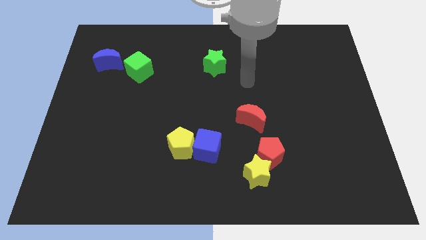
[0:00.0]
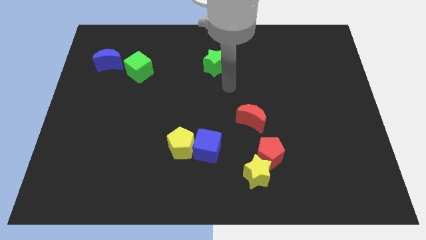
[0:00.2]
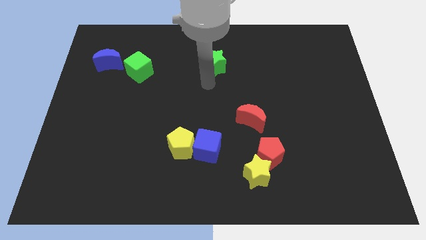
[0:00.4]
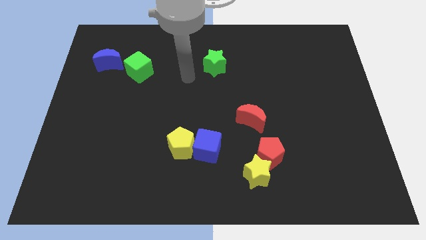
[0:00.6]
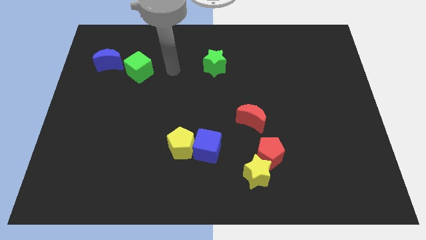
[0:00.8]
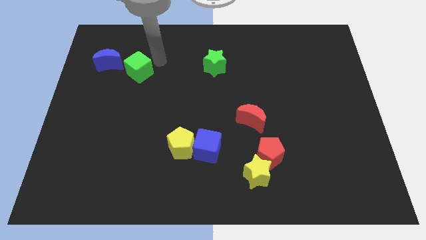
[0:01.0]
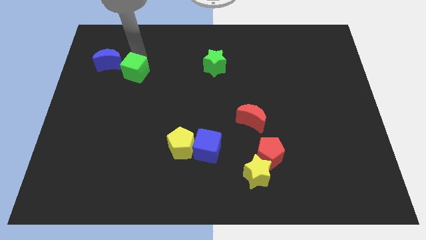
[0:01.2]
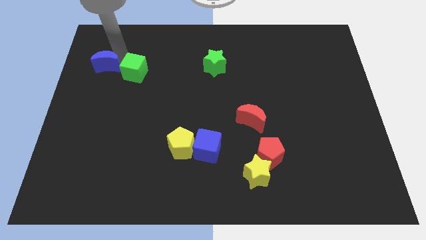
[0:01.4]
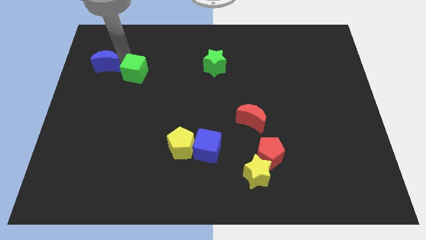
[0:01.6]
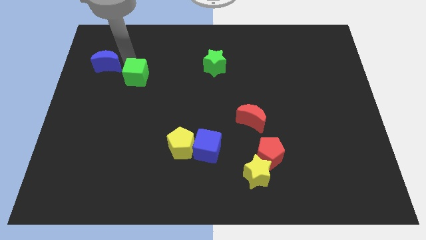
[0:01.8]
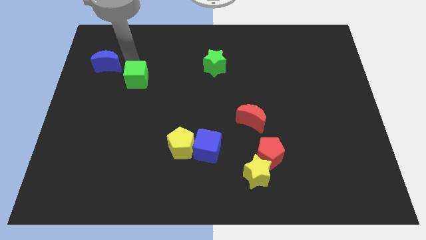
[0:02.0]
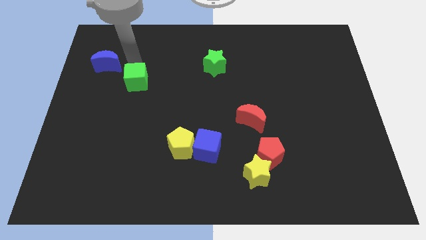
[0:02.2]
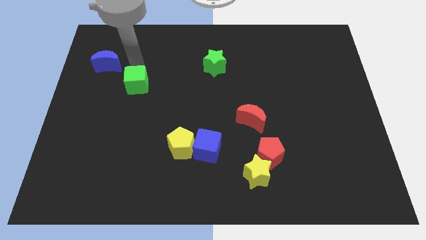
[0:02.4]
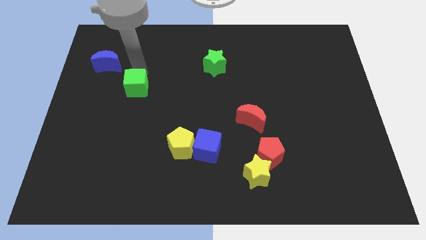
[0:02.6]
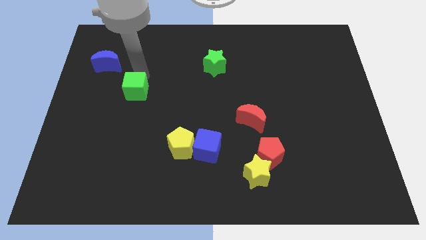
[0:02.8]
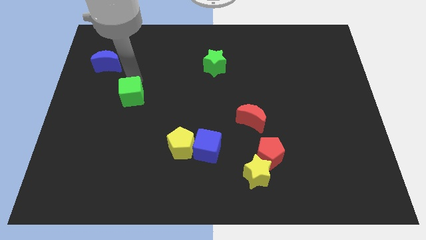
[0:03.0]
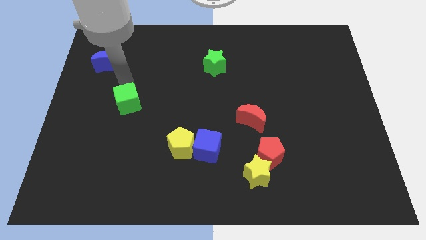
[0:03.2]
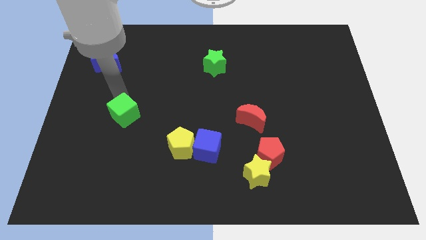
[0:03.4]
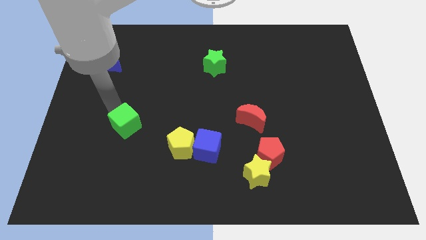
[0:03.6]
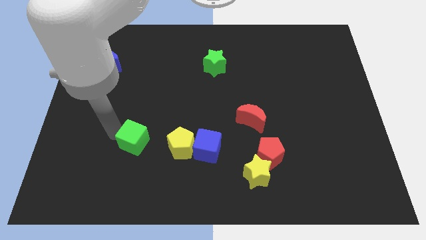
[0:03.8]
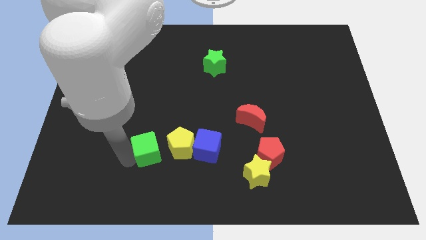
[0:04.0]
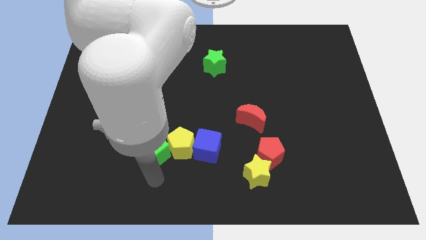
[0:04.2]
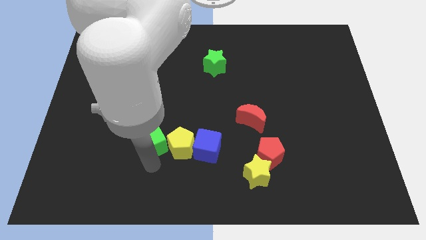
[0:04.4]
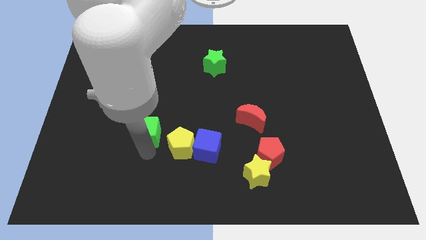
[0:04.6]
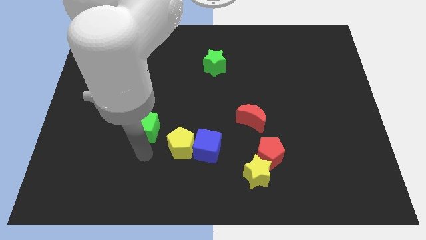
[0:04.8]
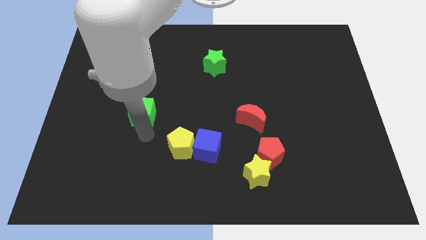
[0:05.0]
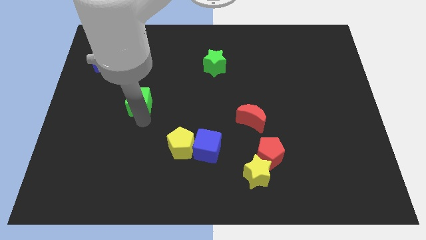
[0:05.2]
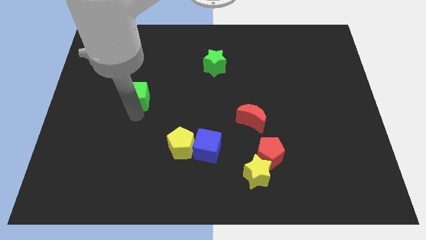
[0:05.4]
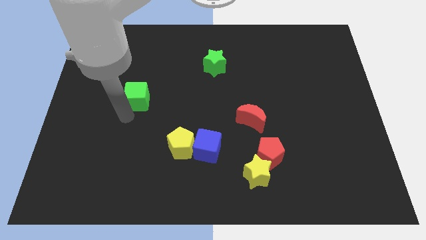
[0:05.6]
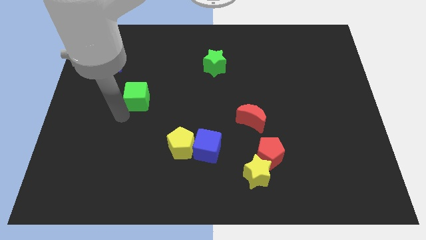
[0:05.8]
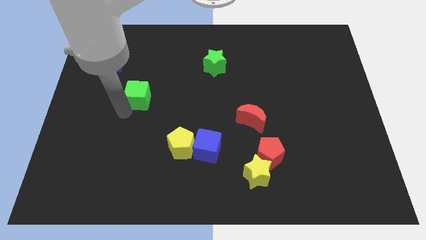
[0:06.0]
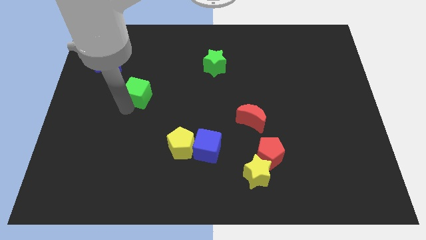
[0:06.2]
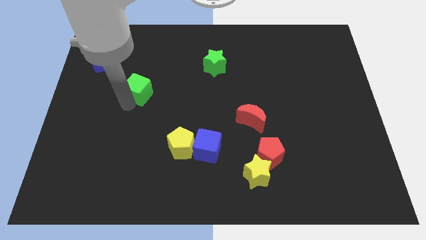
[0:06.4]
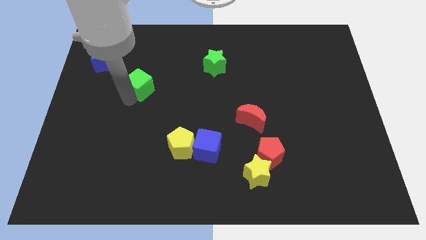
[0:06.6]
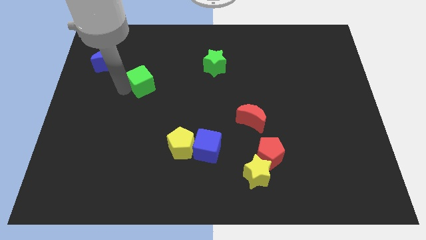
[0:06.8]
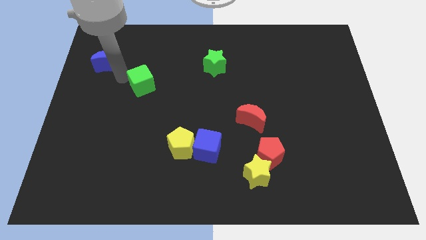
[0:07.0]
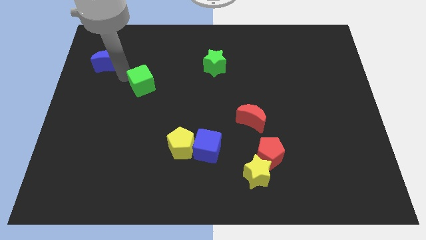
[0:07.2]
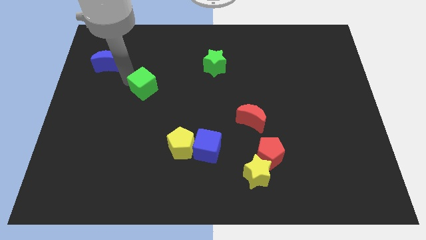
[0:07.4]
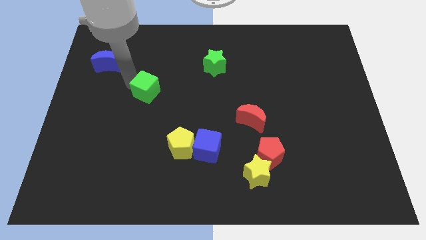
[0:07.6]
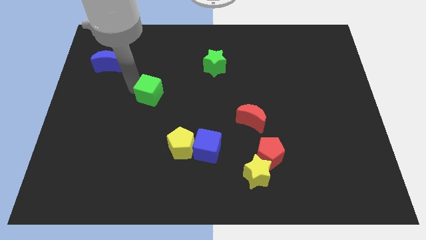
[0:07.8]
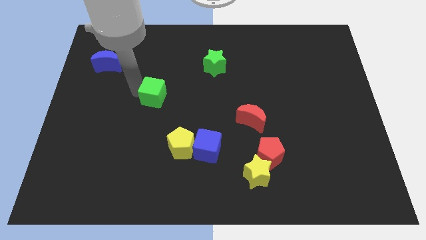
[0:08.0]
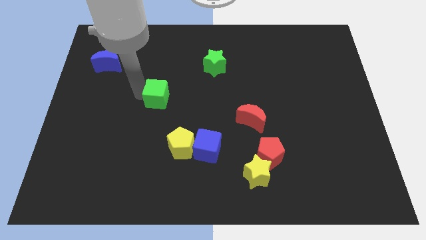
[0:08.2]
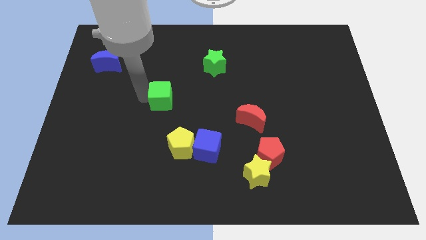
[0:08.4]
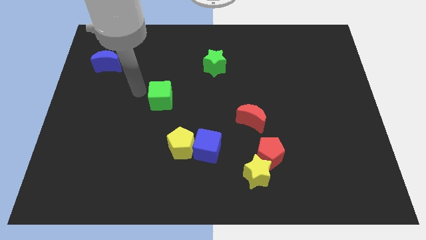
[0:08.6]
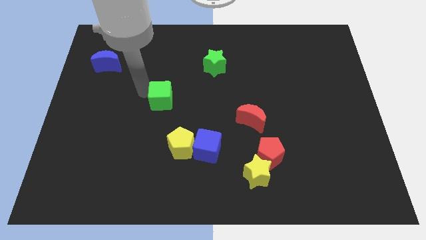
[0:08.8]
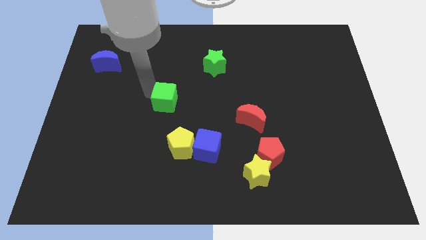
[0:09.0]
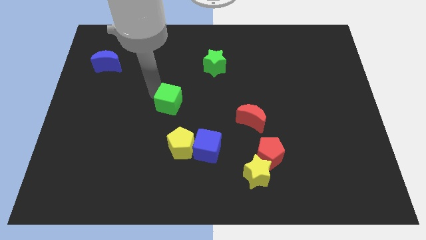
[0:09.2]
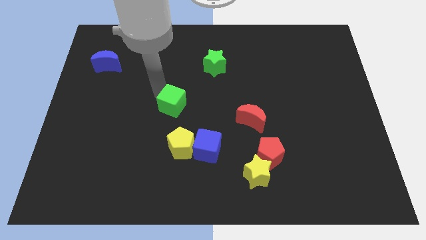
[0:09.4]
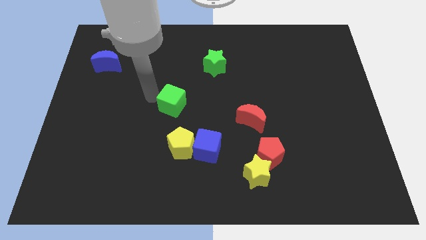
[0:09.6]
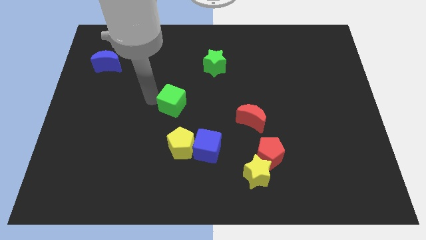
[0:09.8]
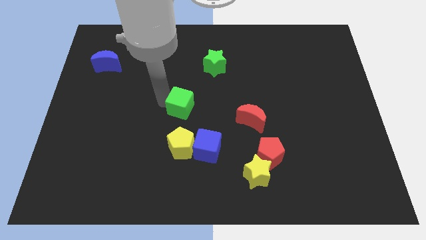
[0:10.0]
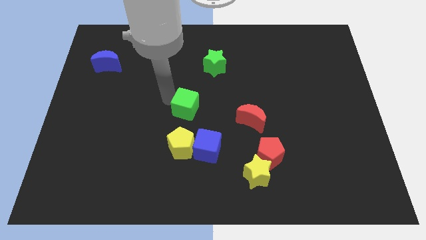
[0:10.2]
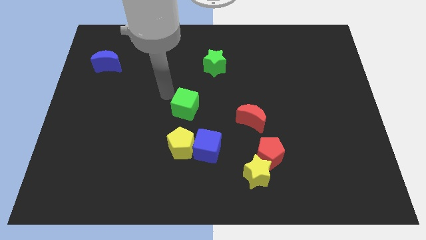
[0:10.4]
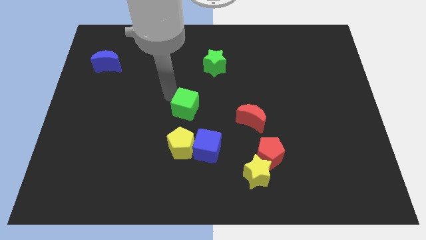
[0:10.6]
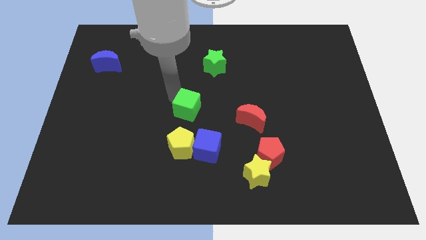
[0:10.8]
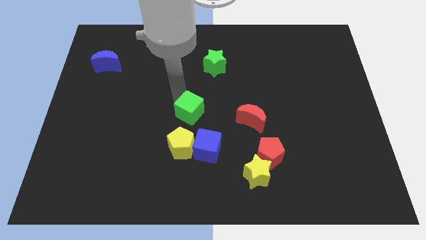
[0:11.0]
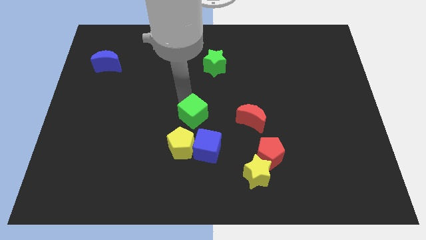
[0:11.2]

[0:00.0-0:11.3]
push the green cube to the top right side of the yellow pentagon

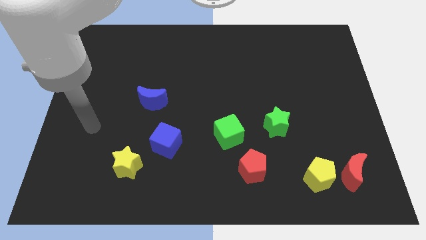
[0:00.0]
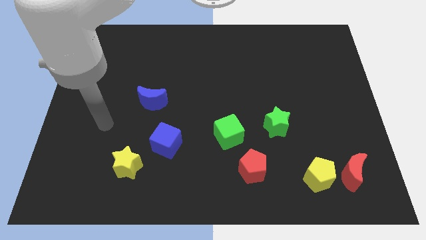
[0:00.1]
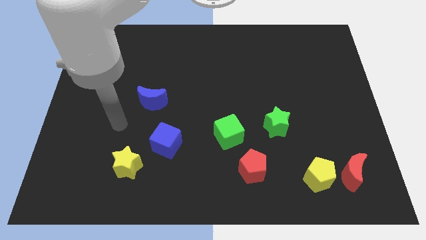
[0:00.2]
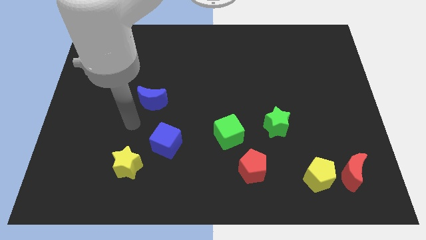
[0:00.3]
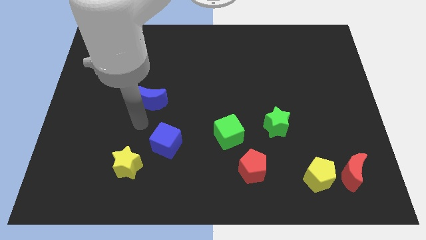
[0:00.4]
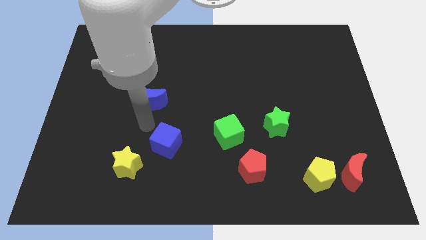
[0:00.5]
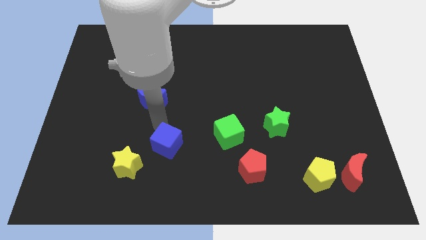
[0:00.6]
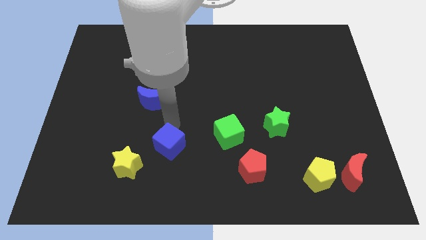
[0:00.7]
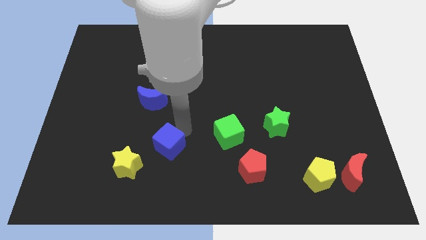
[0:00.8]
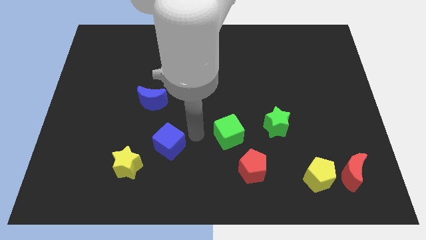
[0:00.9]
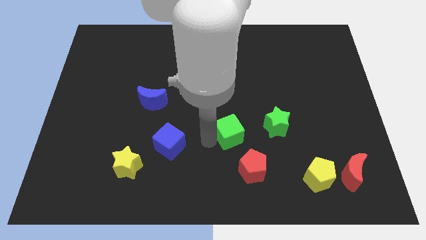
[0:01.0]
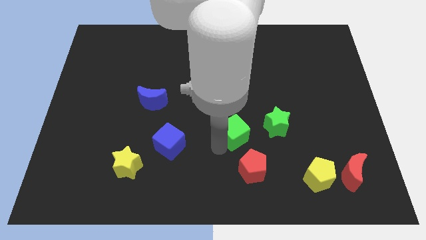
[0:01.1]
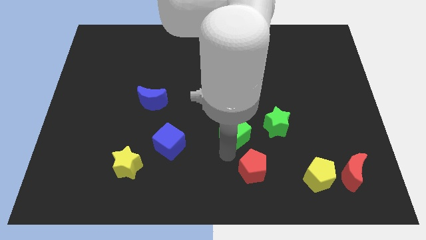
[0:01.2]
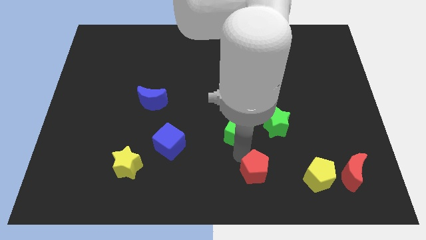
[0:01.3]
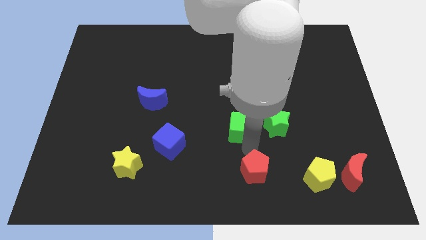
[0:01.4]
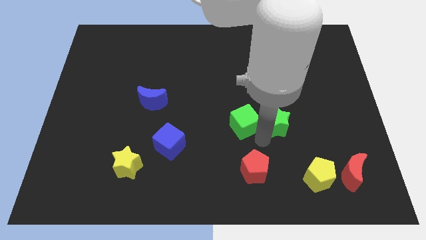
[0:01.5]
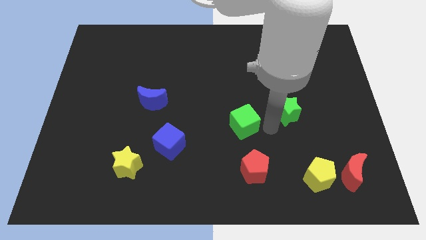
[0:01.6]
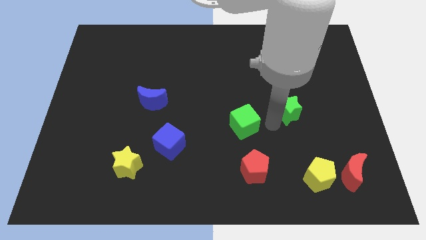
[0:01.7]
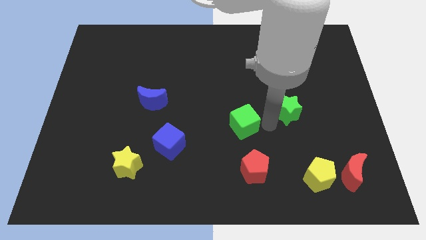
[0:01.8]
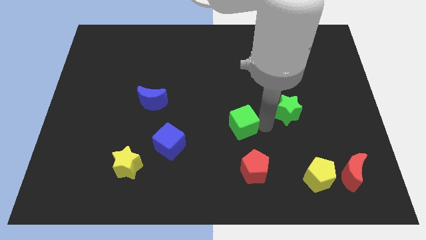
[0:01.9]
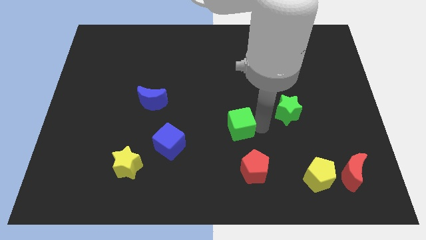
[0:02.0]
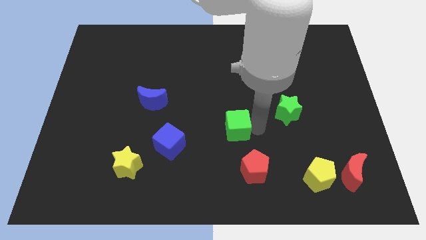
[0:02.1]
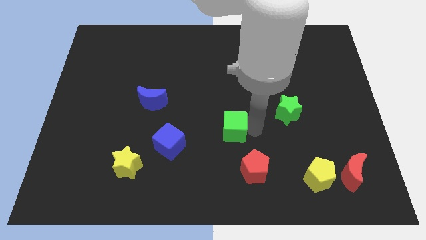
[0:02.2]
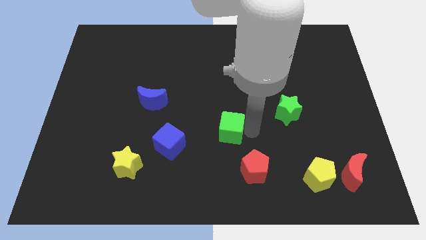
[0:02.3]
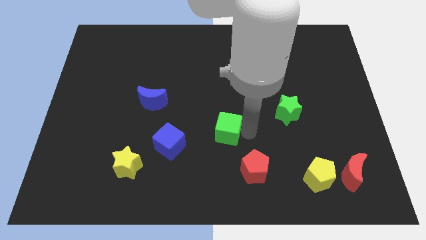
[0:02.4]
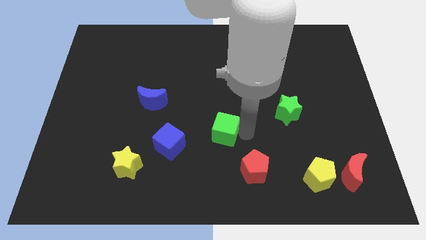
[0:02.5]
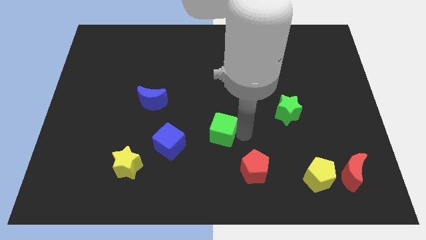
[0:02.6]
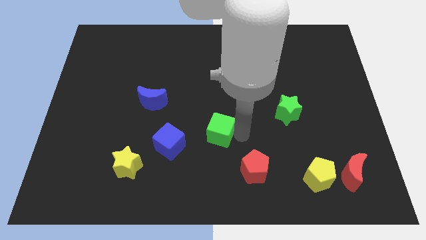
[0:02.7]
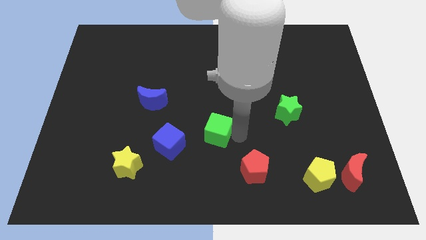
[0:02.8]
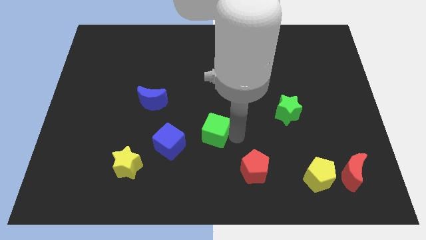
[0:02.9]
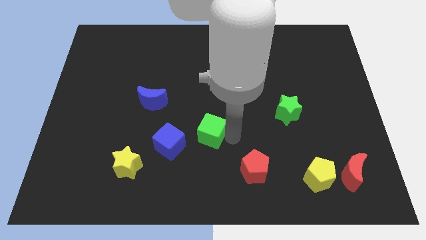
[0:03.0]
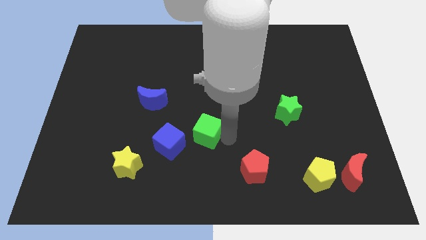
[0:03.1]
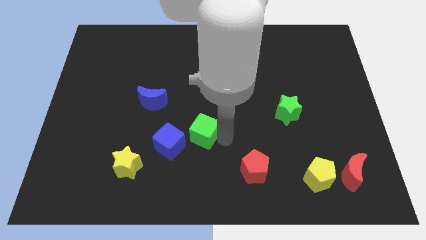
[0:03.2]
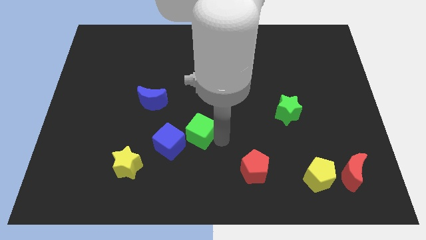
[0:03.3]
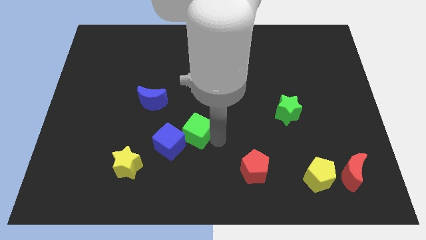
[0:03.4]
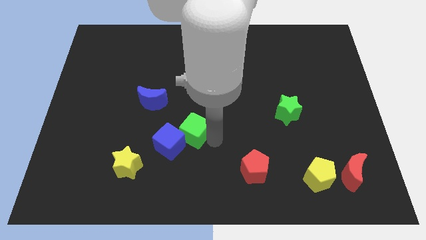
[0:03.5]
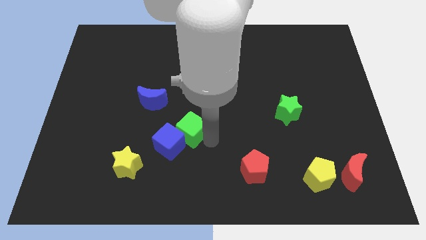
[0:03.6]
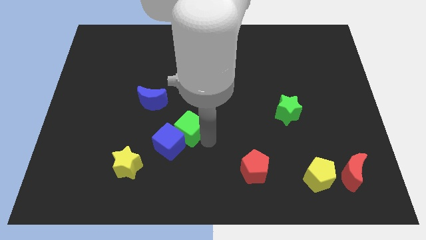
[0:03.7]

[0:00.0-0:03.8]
push the green cube to the top of the blue cube
